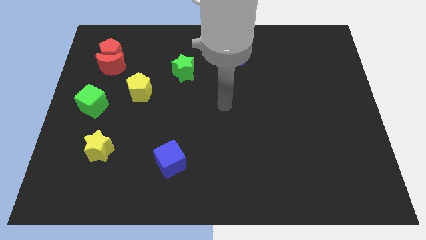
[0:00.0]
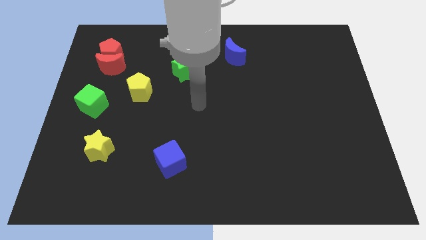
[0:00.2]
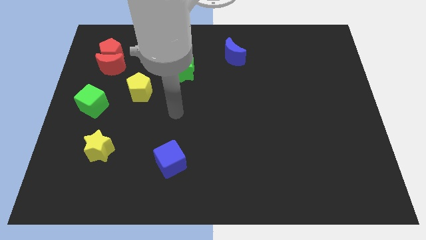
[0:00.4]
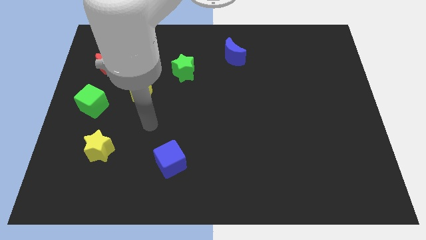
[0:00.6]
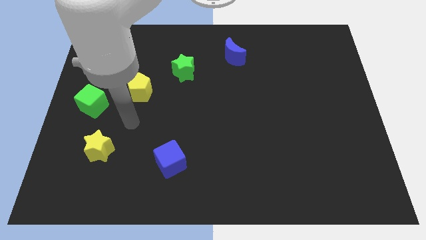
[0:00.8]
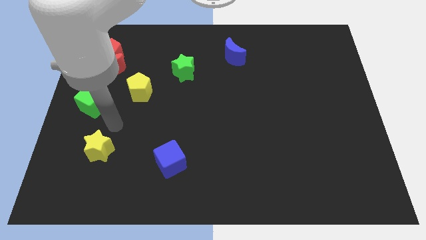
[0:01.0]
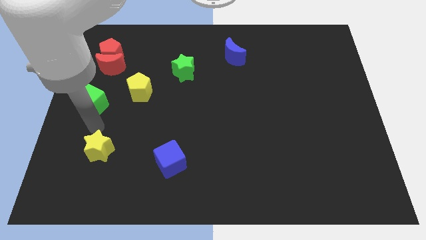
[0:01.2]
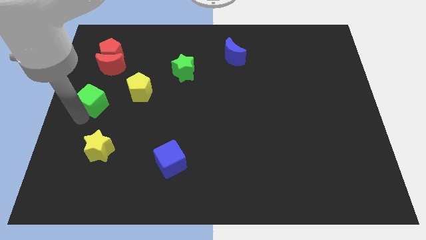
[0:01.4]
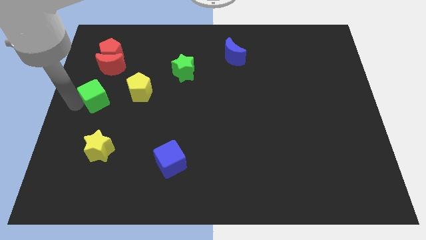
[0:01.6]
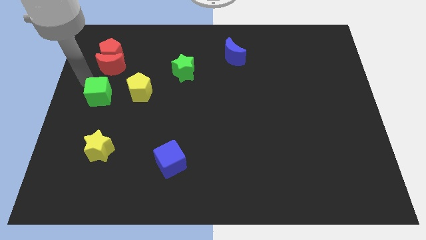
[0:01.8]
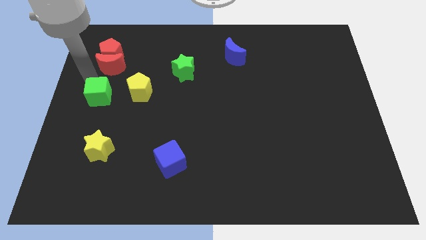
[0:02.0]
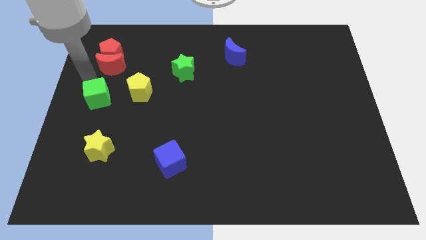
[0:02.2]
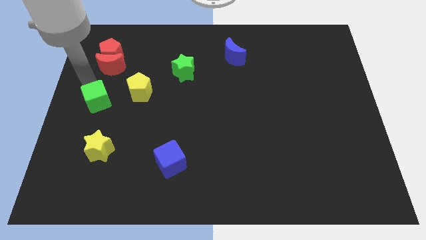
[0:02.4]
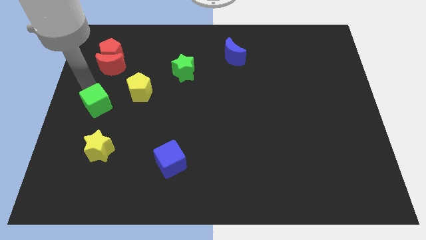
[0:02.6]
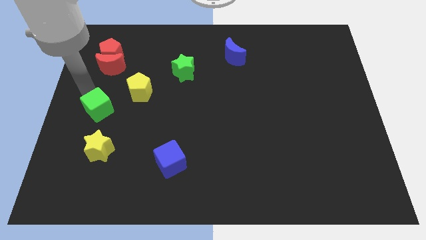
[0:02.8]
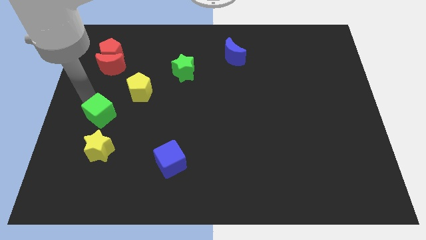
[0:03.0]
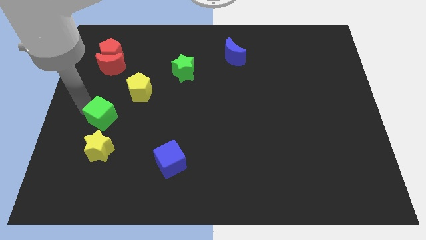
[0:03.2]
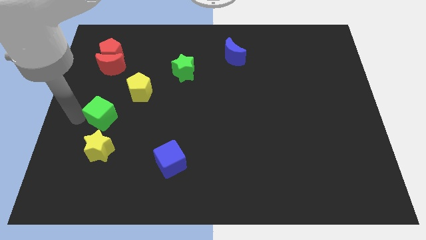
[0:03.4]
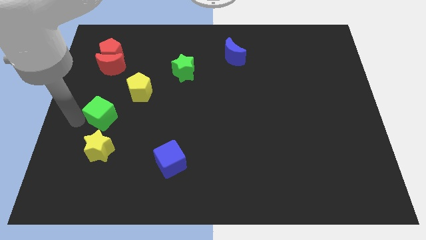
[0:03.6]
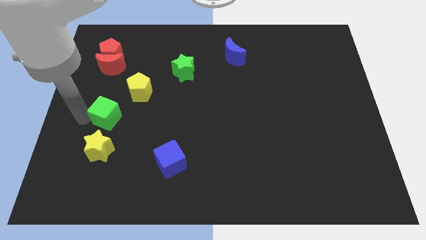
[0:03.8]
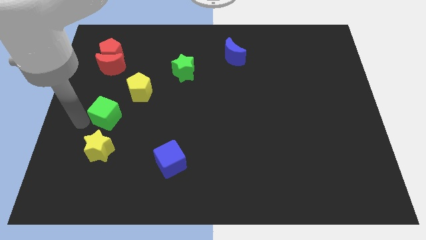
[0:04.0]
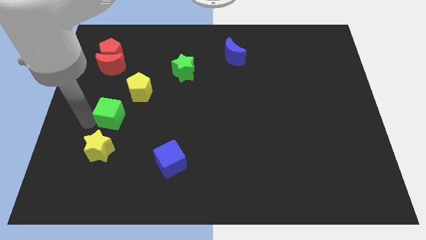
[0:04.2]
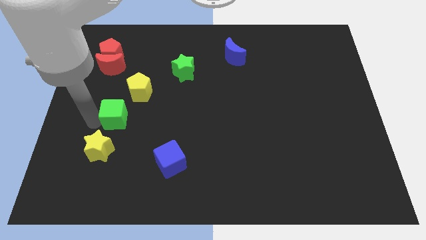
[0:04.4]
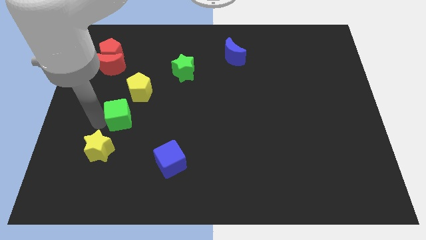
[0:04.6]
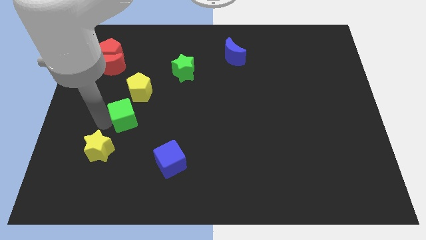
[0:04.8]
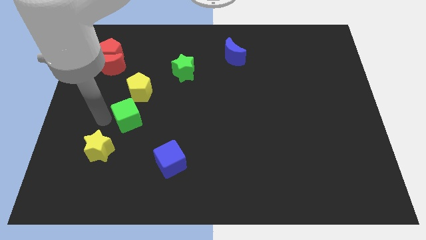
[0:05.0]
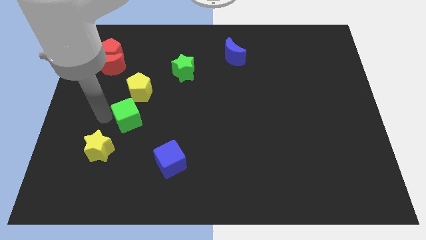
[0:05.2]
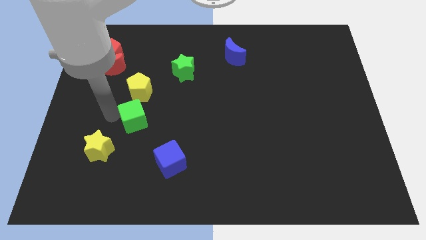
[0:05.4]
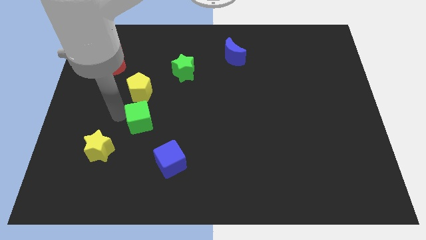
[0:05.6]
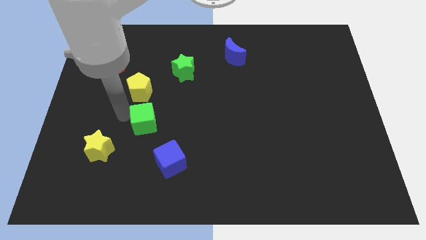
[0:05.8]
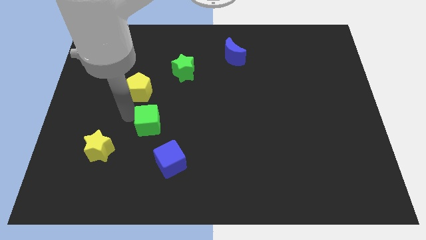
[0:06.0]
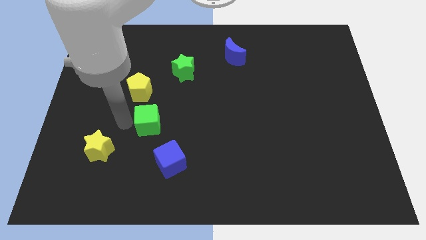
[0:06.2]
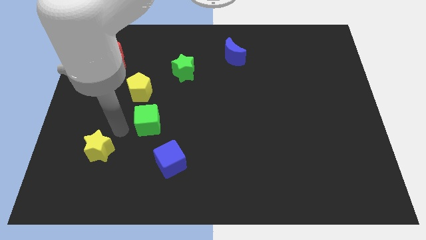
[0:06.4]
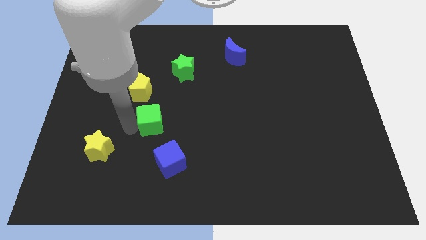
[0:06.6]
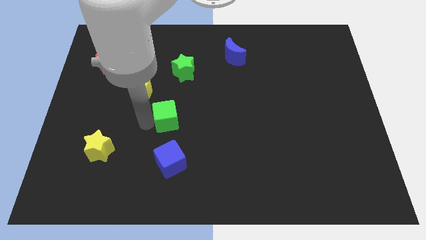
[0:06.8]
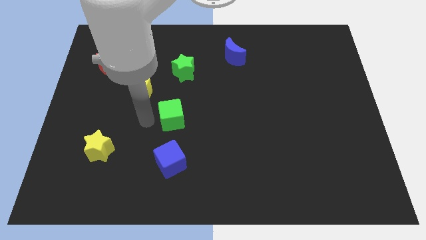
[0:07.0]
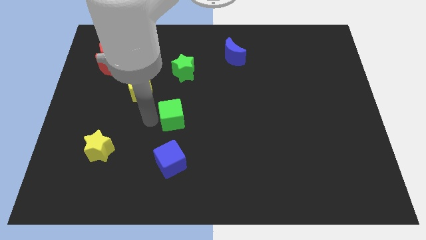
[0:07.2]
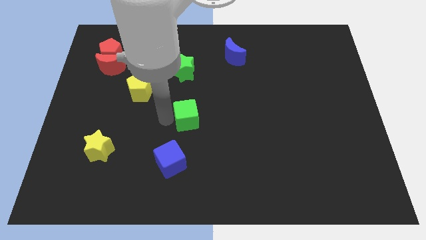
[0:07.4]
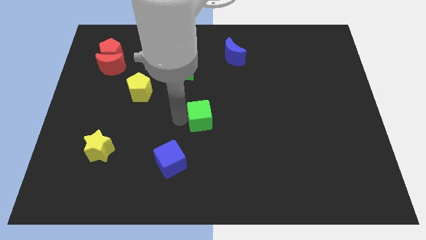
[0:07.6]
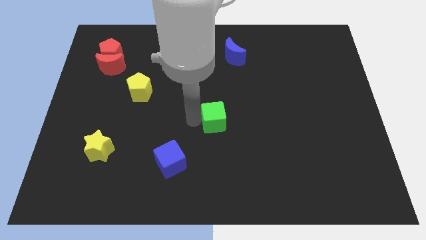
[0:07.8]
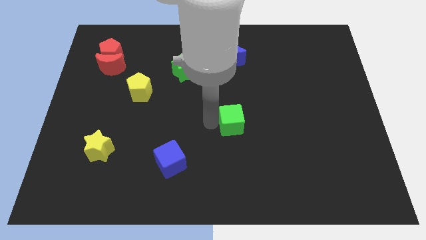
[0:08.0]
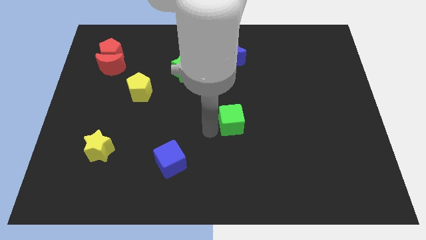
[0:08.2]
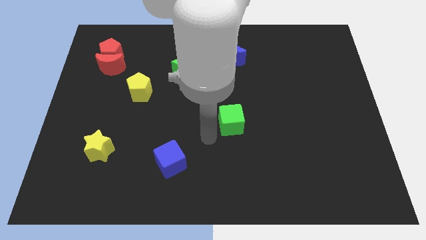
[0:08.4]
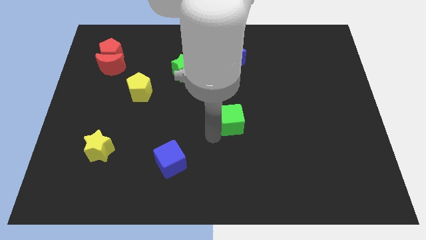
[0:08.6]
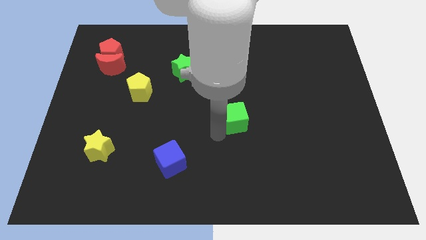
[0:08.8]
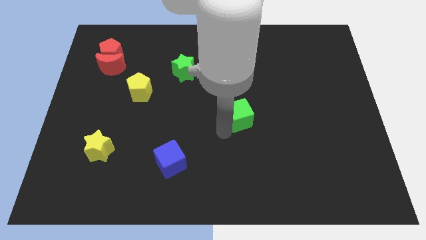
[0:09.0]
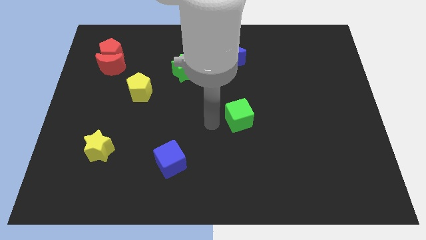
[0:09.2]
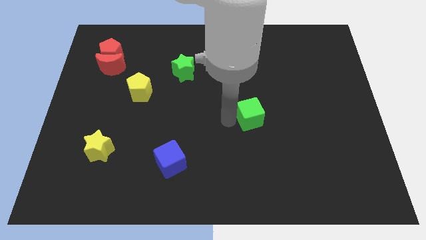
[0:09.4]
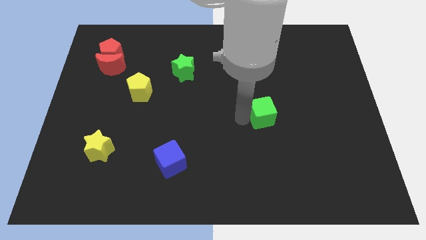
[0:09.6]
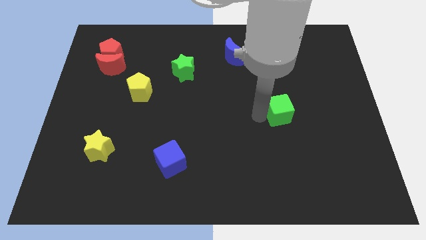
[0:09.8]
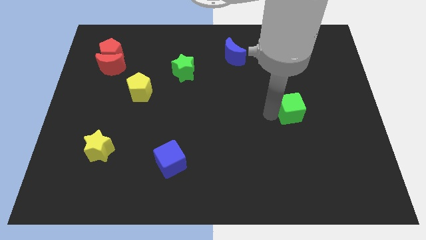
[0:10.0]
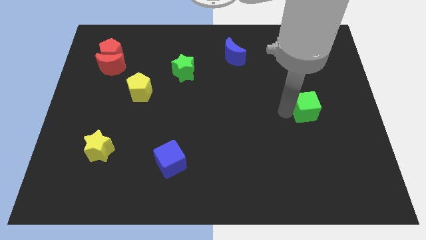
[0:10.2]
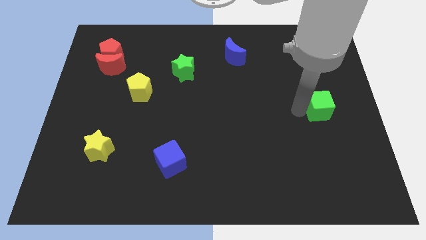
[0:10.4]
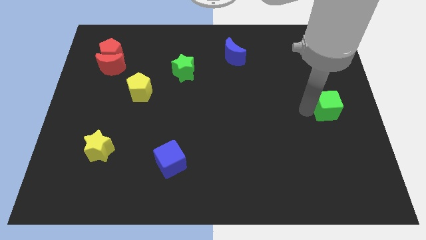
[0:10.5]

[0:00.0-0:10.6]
push the green cube to the right side of the board

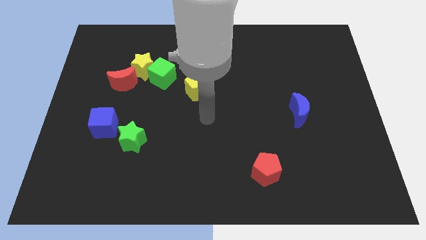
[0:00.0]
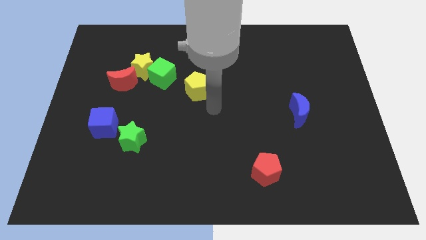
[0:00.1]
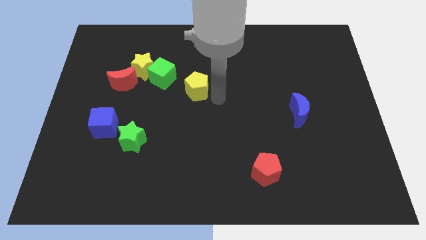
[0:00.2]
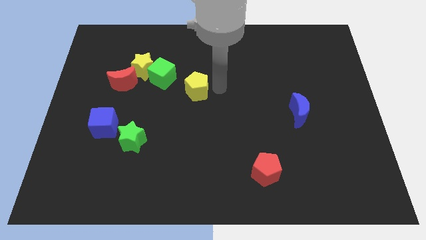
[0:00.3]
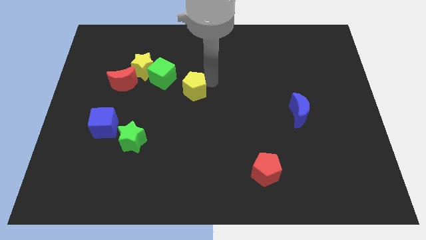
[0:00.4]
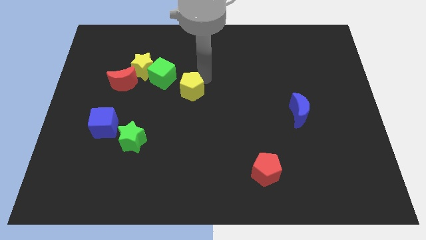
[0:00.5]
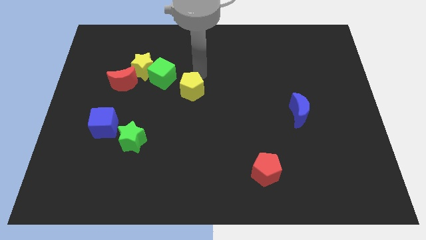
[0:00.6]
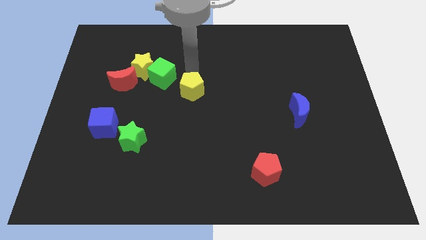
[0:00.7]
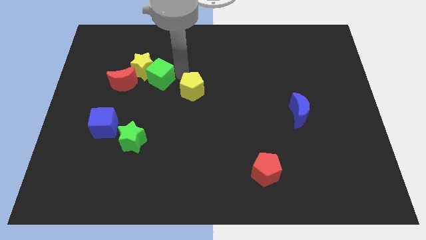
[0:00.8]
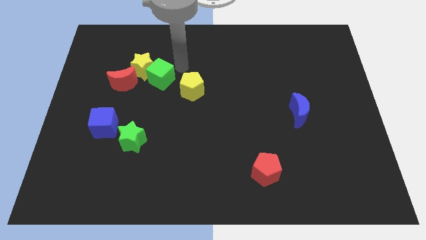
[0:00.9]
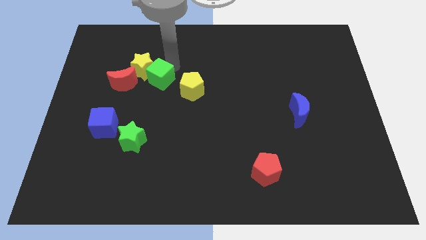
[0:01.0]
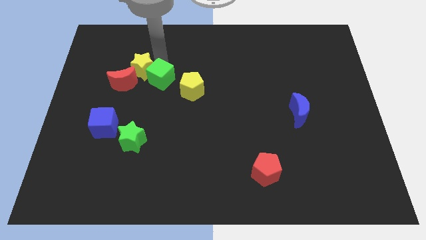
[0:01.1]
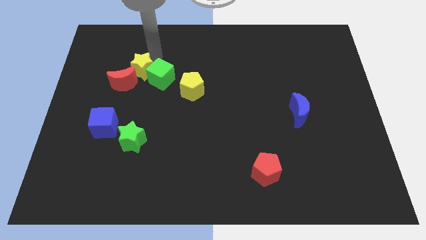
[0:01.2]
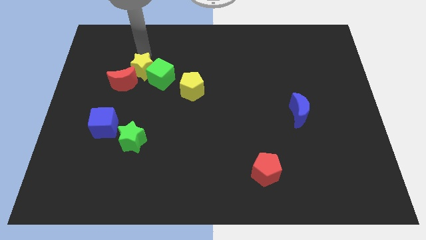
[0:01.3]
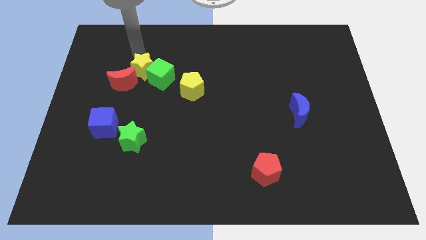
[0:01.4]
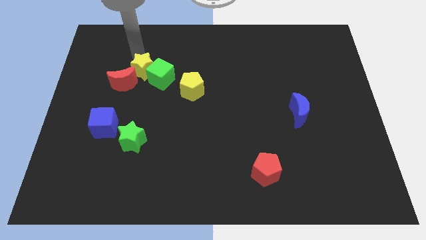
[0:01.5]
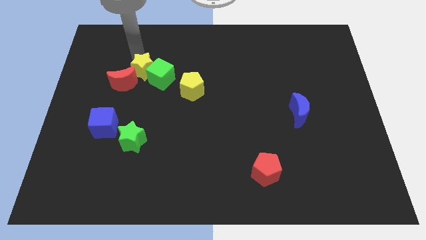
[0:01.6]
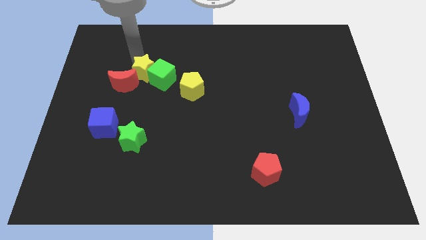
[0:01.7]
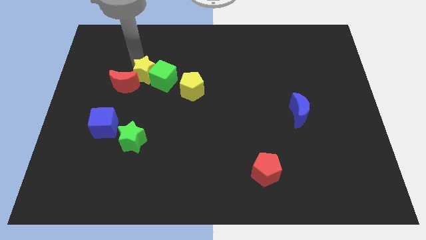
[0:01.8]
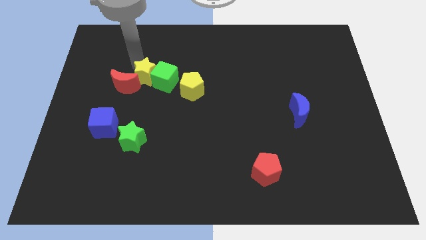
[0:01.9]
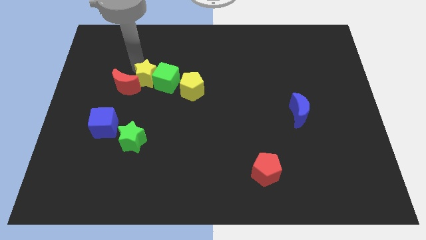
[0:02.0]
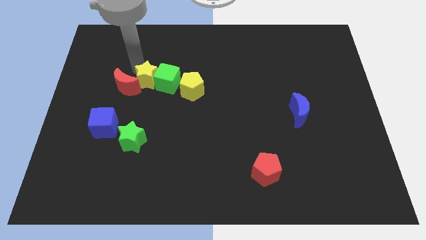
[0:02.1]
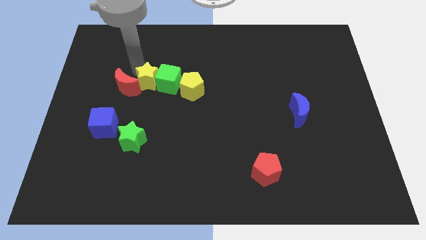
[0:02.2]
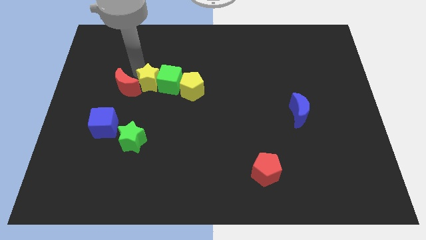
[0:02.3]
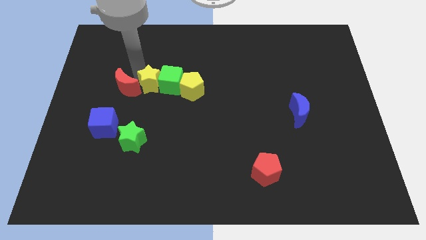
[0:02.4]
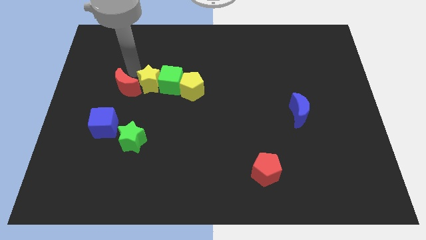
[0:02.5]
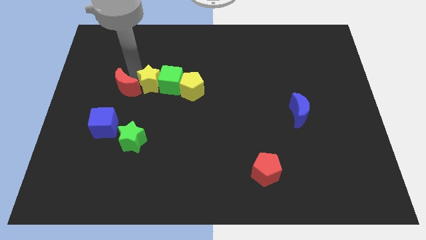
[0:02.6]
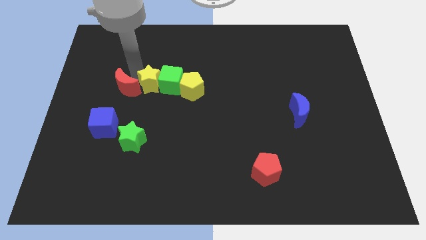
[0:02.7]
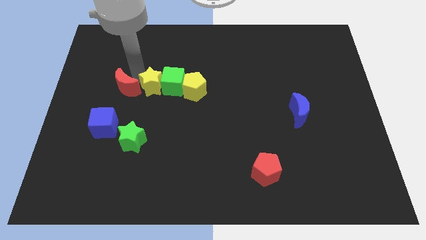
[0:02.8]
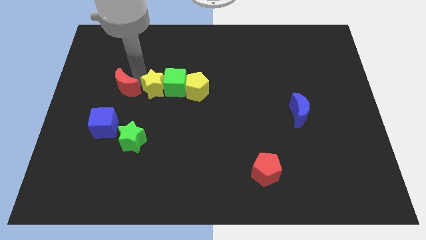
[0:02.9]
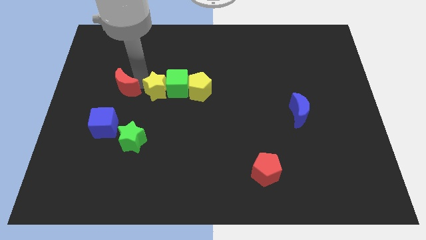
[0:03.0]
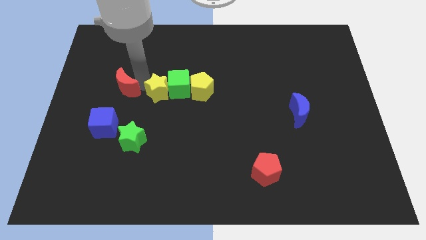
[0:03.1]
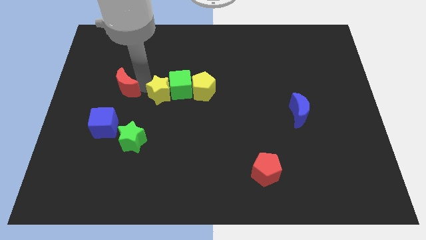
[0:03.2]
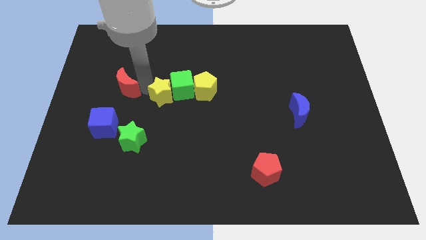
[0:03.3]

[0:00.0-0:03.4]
put the yellow star to the middle
